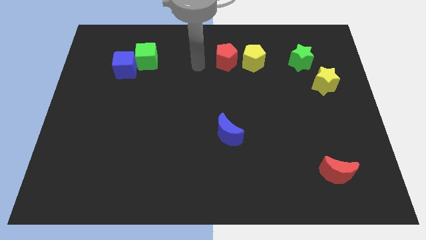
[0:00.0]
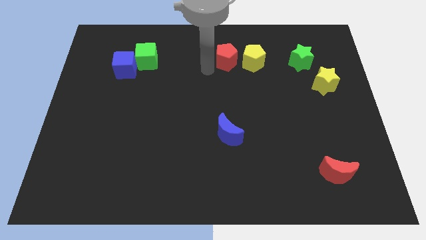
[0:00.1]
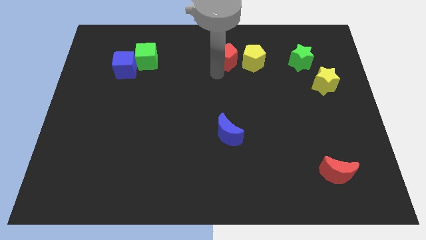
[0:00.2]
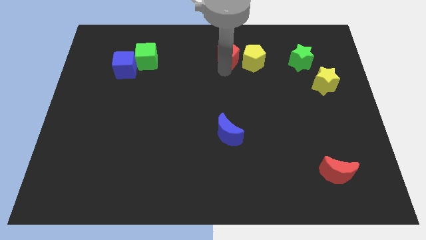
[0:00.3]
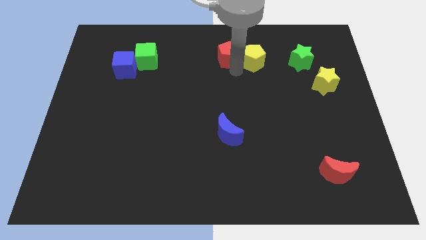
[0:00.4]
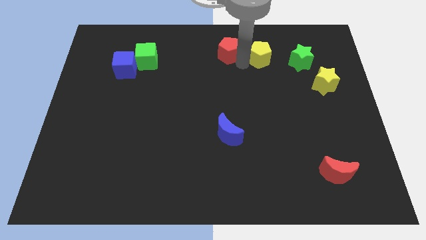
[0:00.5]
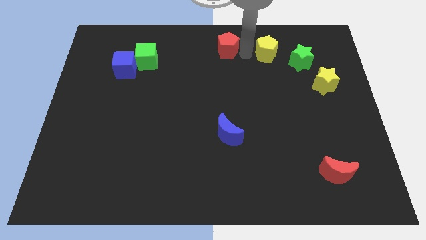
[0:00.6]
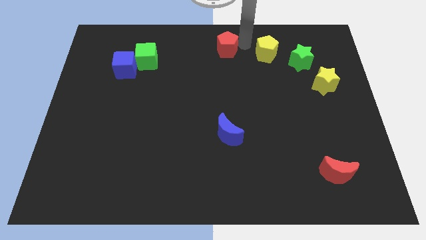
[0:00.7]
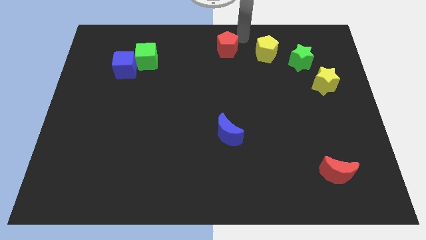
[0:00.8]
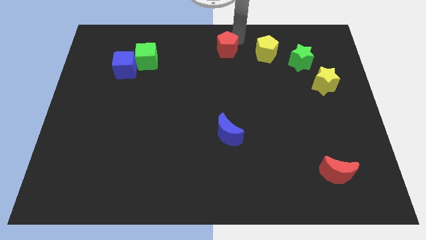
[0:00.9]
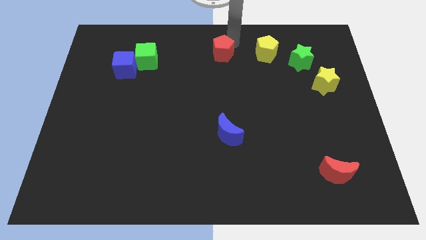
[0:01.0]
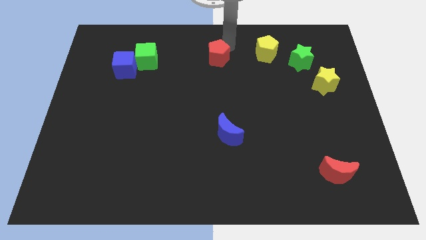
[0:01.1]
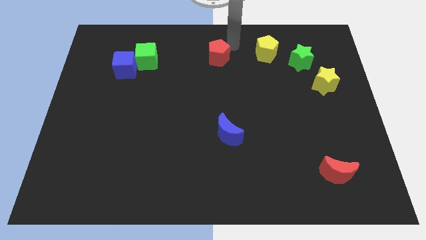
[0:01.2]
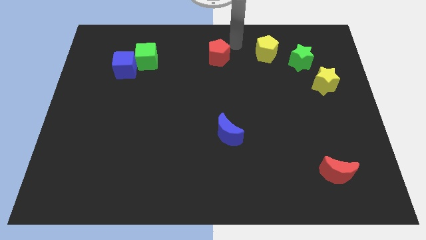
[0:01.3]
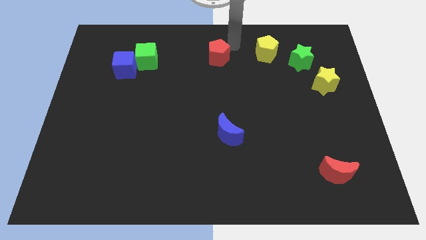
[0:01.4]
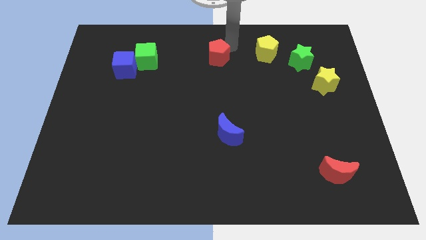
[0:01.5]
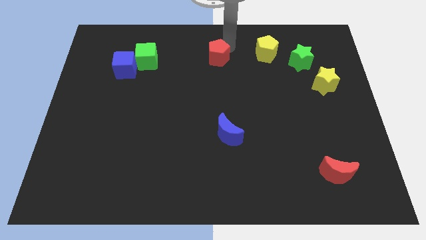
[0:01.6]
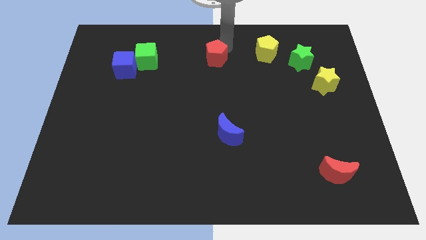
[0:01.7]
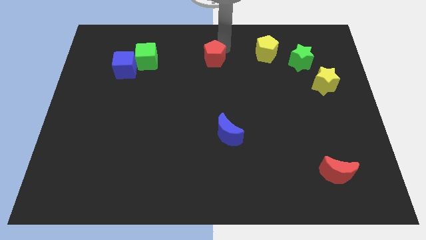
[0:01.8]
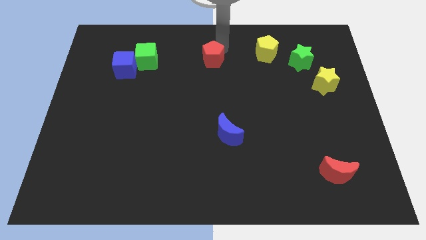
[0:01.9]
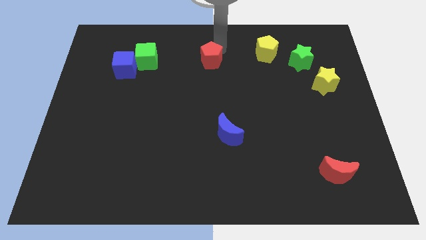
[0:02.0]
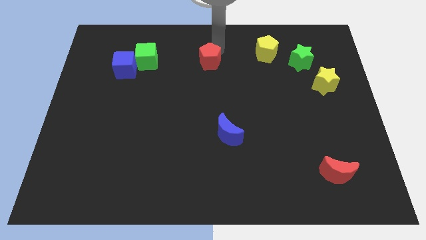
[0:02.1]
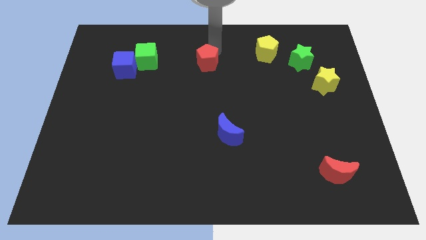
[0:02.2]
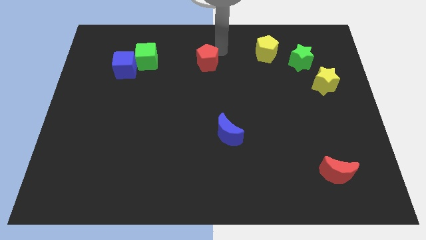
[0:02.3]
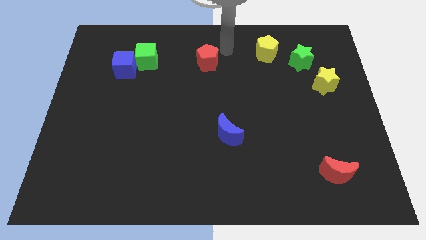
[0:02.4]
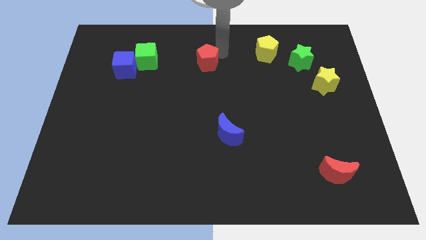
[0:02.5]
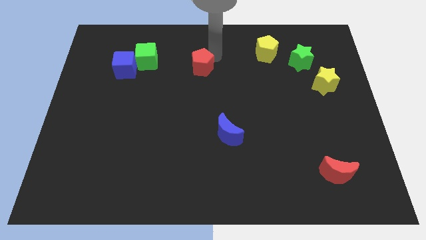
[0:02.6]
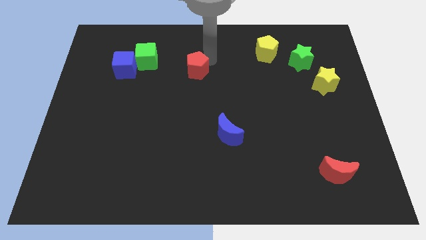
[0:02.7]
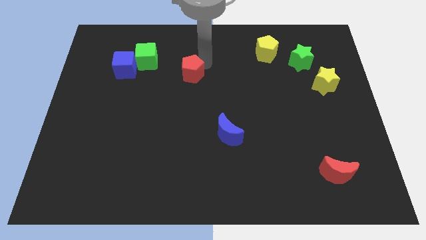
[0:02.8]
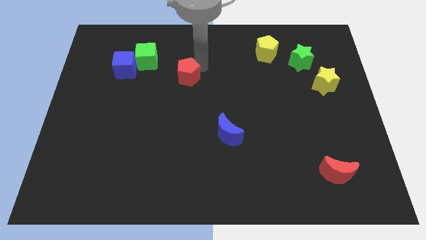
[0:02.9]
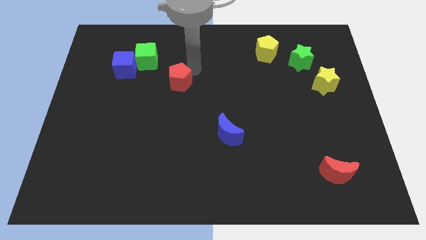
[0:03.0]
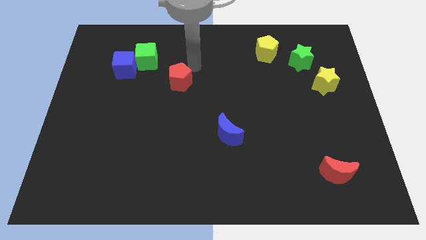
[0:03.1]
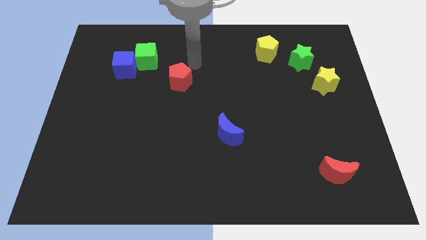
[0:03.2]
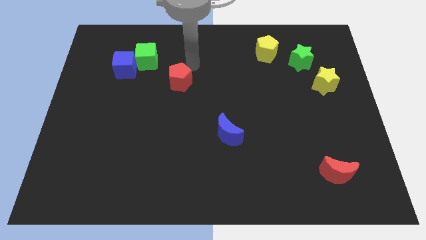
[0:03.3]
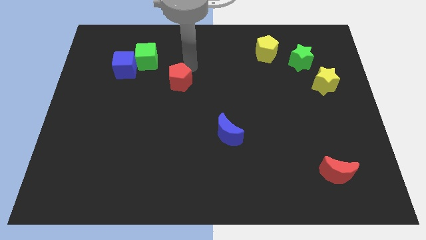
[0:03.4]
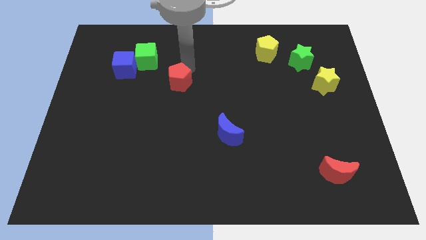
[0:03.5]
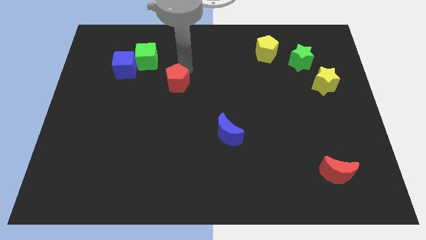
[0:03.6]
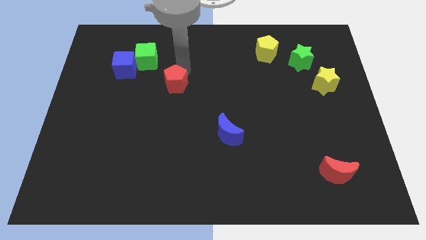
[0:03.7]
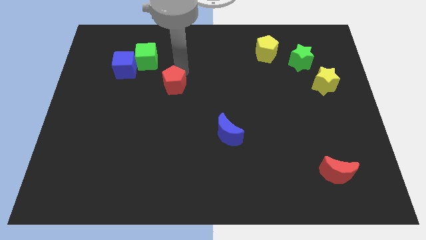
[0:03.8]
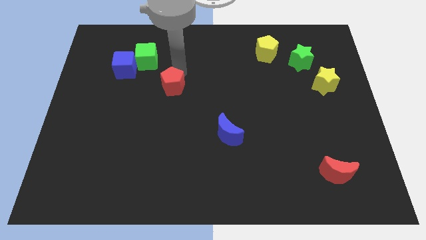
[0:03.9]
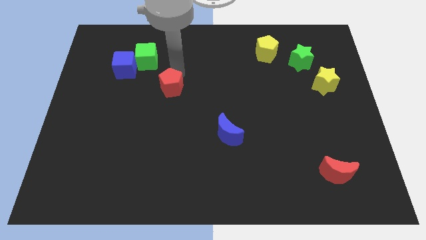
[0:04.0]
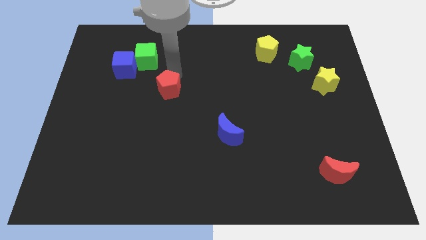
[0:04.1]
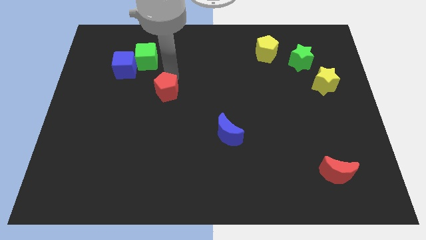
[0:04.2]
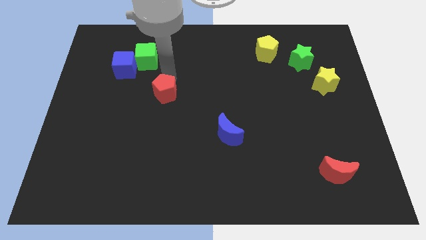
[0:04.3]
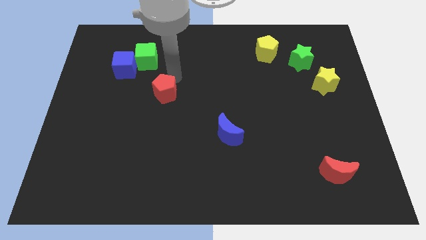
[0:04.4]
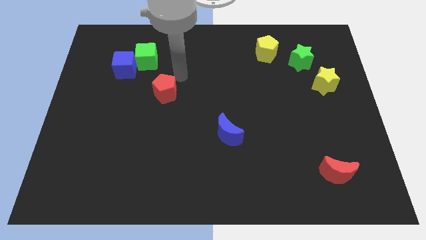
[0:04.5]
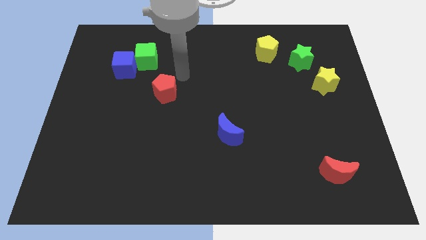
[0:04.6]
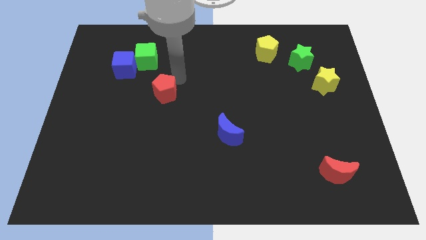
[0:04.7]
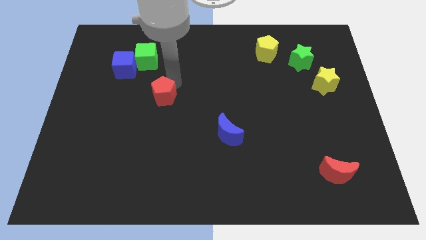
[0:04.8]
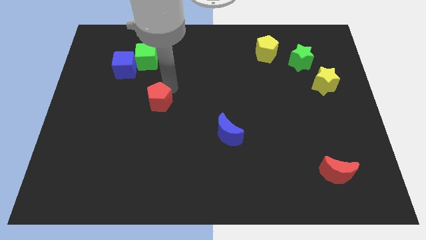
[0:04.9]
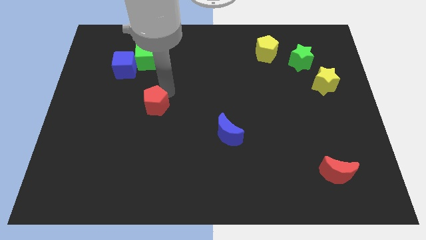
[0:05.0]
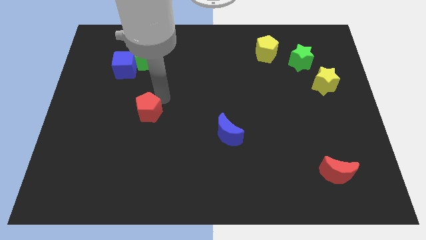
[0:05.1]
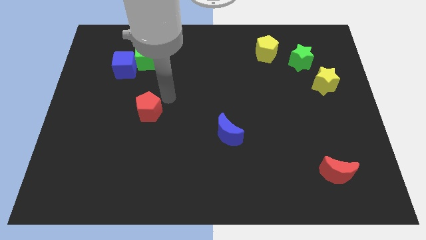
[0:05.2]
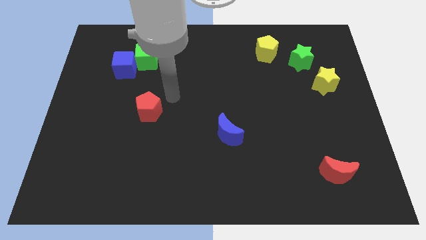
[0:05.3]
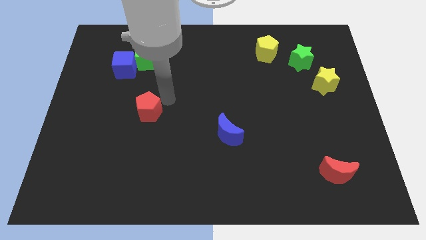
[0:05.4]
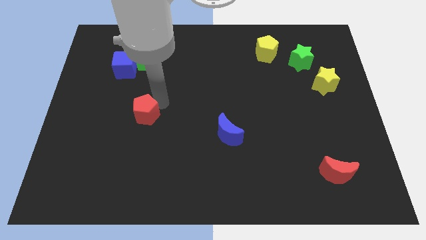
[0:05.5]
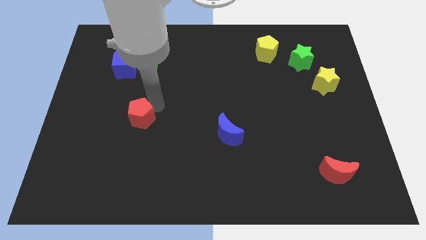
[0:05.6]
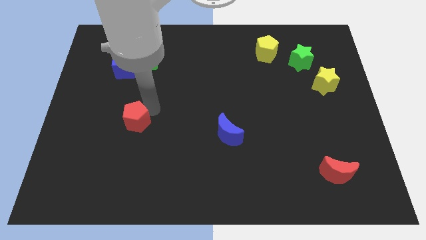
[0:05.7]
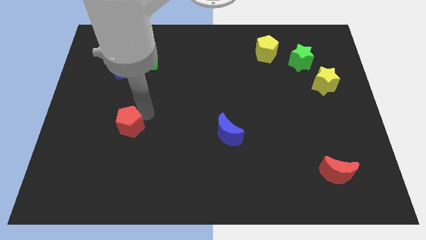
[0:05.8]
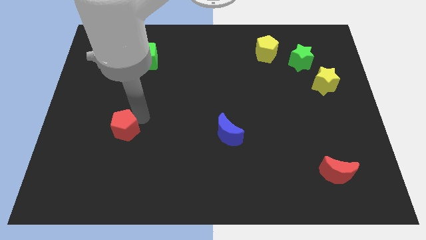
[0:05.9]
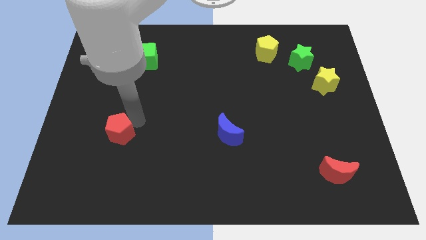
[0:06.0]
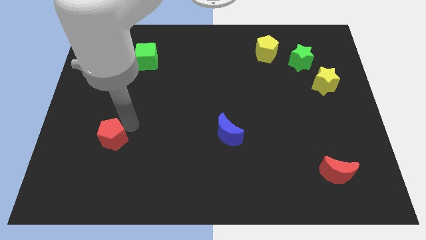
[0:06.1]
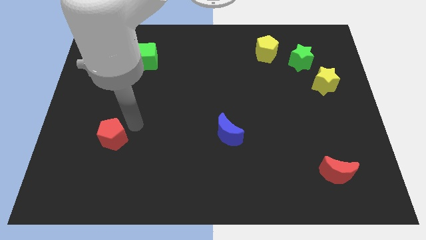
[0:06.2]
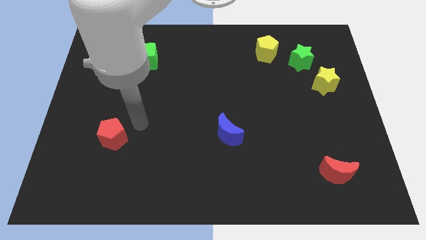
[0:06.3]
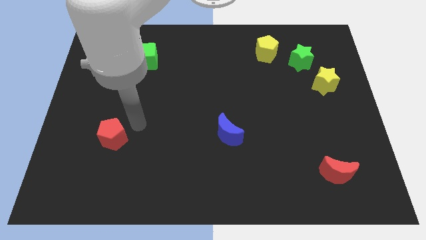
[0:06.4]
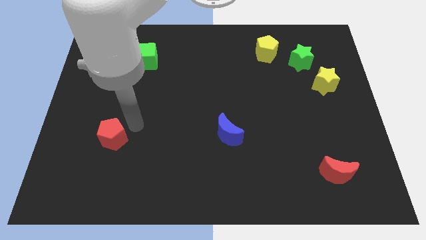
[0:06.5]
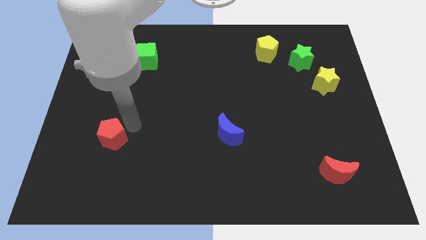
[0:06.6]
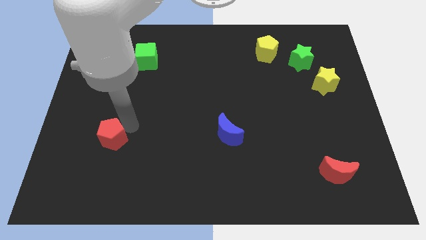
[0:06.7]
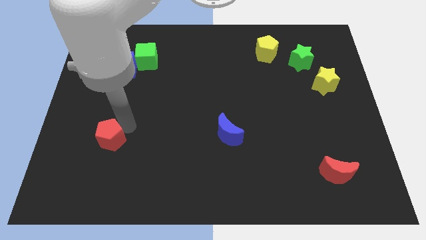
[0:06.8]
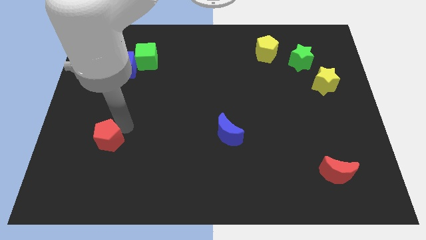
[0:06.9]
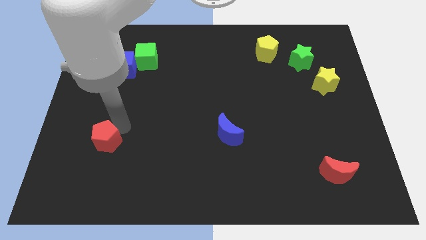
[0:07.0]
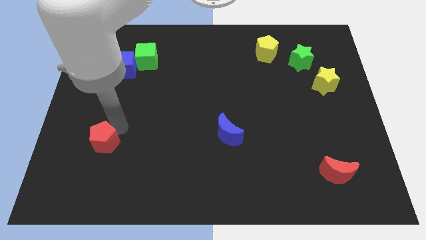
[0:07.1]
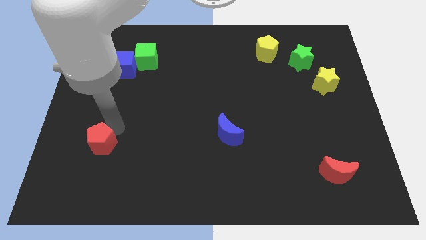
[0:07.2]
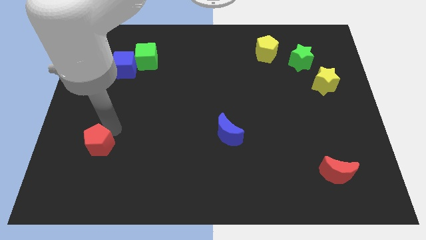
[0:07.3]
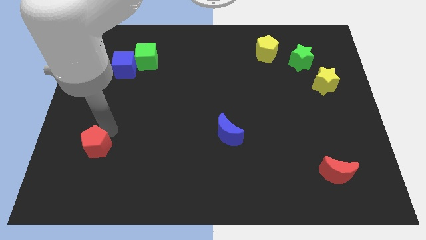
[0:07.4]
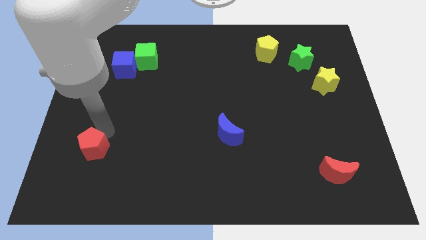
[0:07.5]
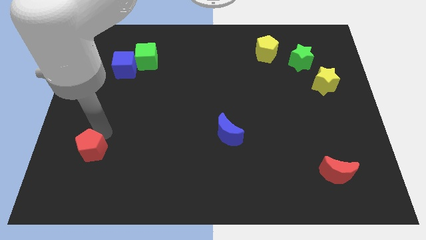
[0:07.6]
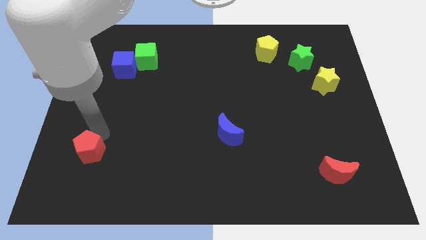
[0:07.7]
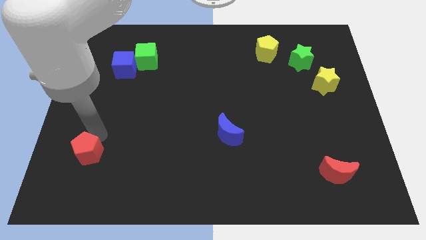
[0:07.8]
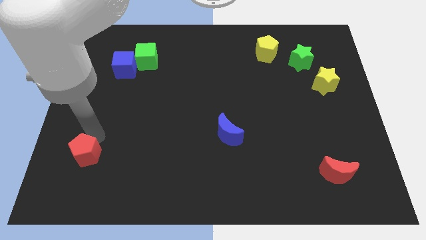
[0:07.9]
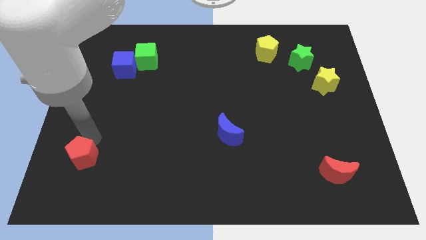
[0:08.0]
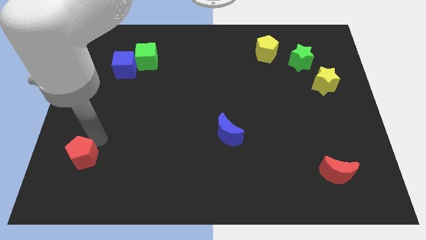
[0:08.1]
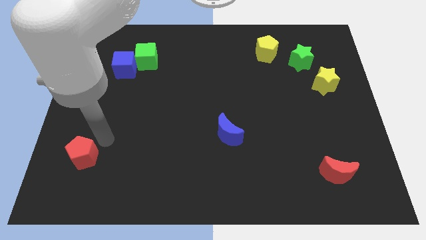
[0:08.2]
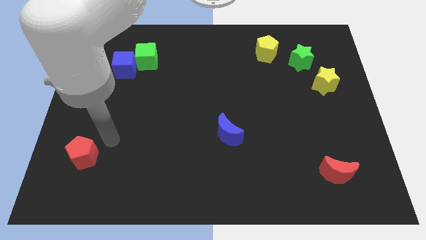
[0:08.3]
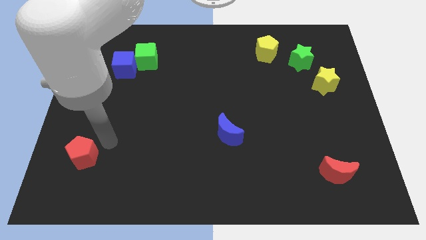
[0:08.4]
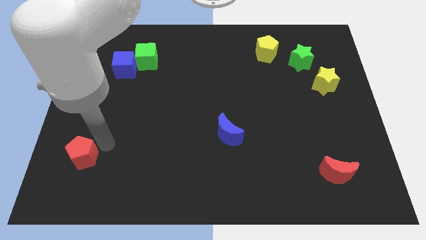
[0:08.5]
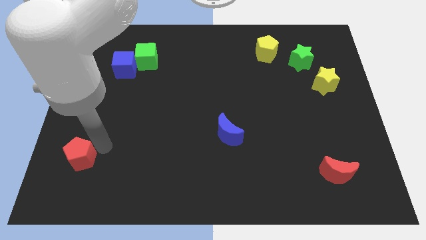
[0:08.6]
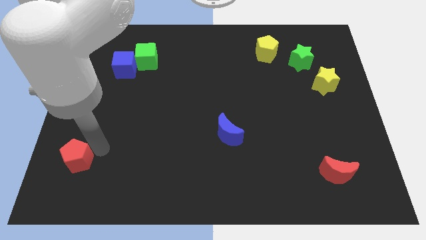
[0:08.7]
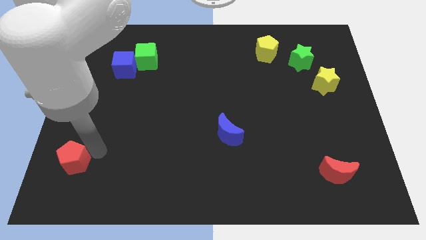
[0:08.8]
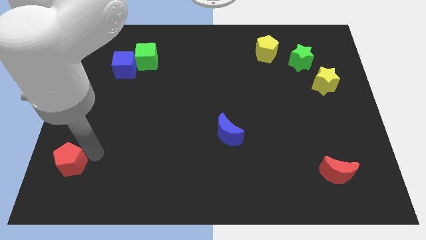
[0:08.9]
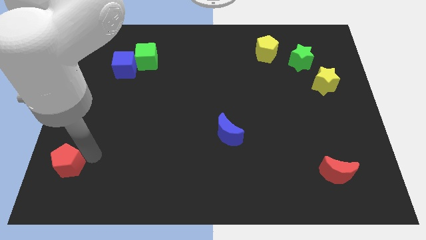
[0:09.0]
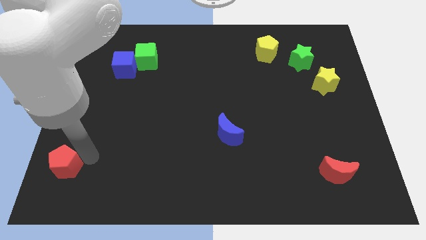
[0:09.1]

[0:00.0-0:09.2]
move the red pentagon to the lower left corner
